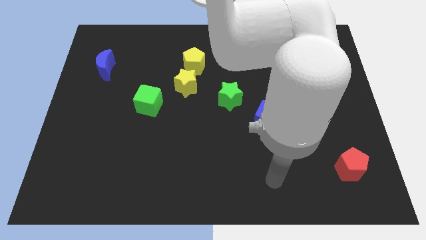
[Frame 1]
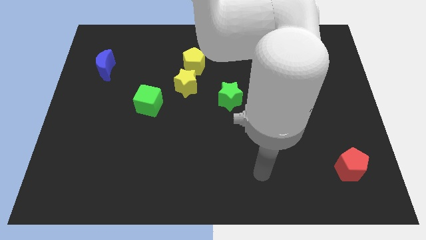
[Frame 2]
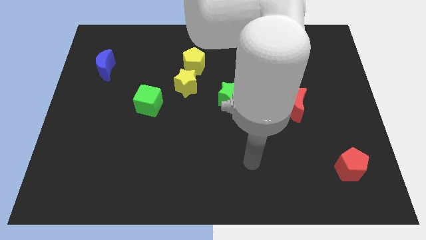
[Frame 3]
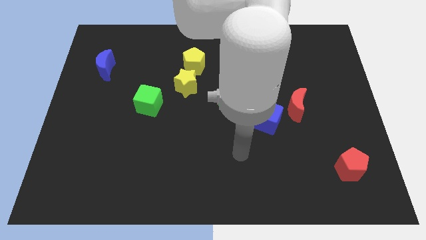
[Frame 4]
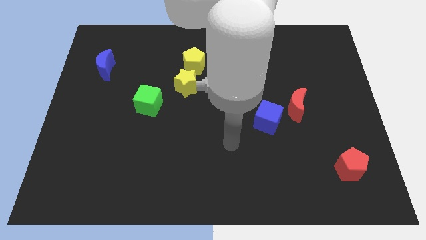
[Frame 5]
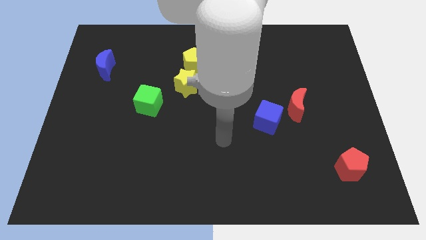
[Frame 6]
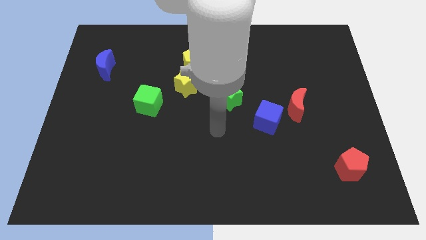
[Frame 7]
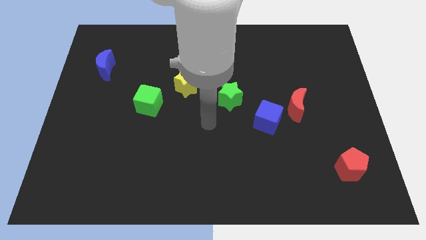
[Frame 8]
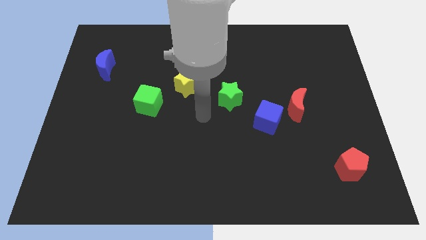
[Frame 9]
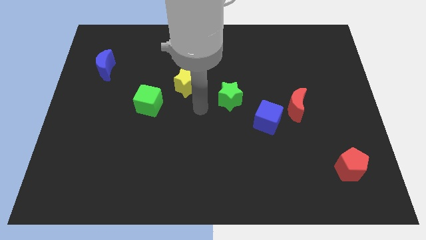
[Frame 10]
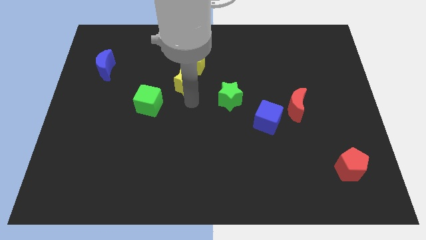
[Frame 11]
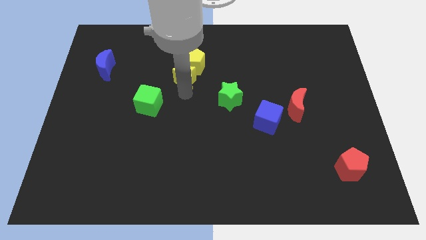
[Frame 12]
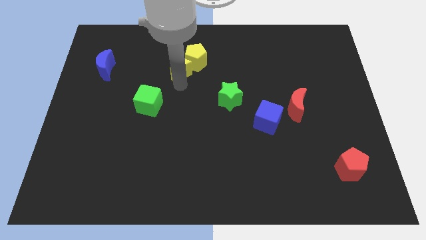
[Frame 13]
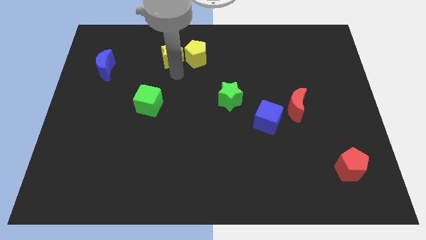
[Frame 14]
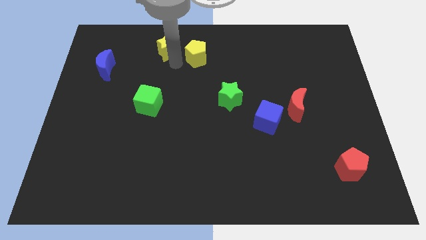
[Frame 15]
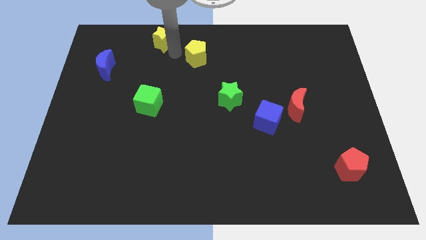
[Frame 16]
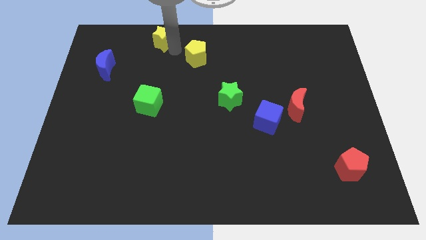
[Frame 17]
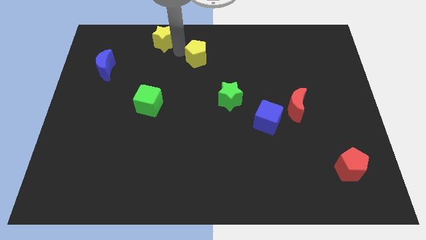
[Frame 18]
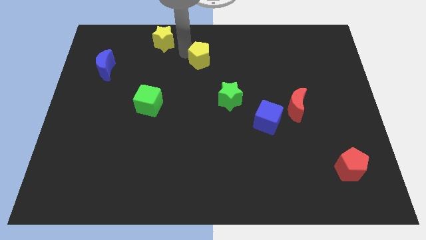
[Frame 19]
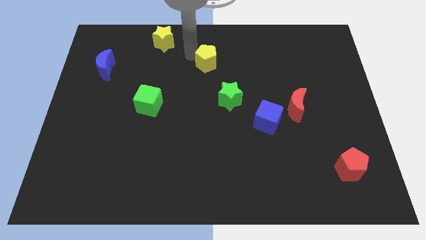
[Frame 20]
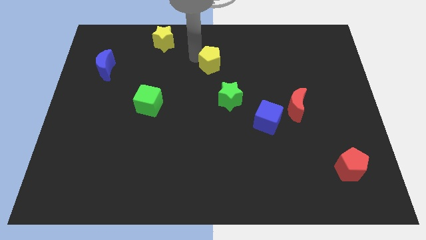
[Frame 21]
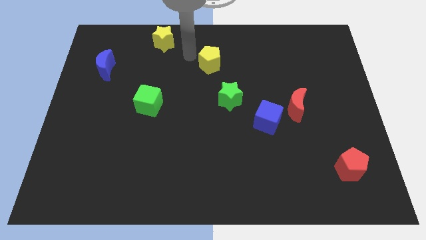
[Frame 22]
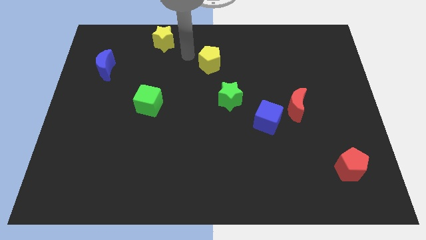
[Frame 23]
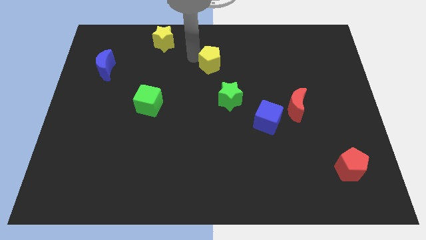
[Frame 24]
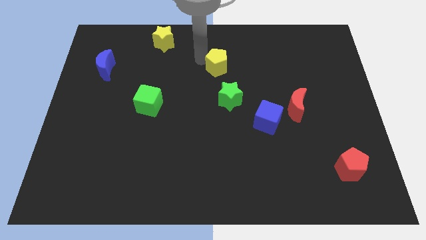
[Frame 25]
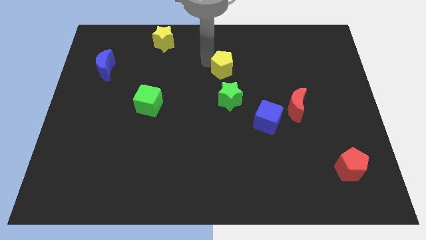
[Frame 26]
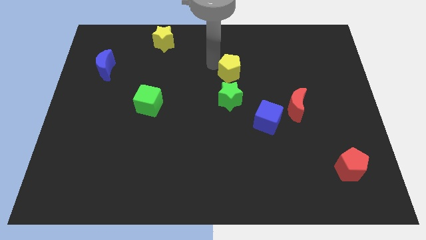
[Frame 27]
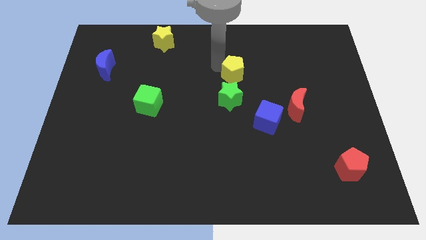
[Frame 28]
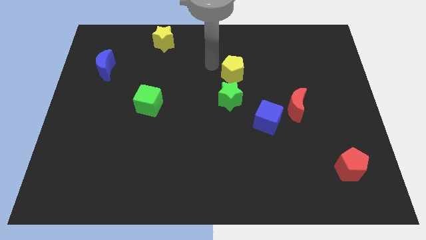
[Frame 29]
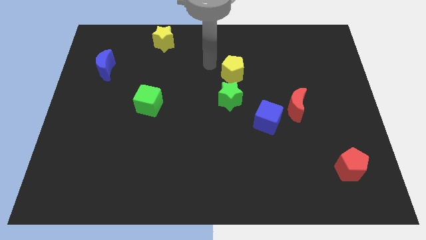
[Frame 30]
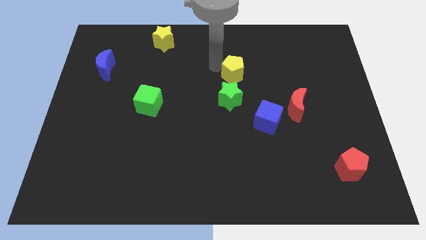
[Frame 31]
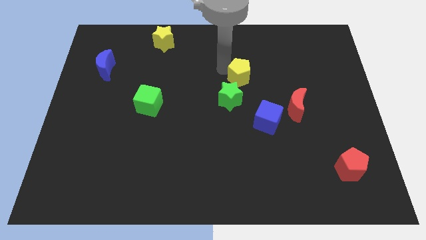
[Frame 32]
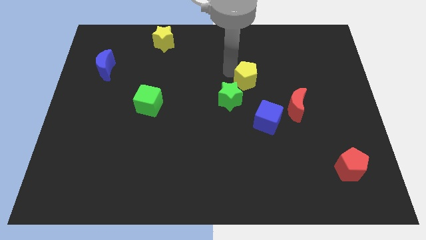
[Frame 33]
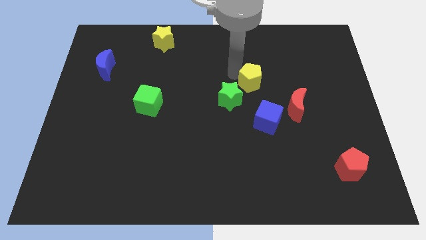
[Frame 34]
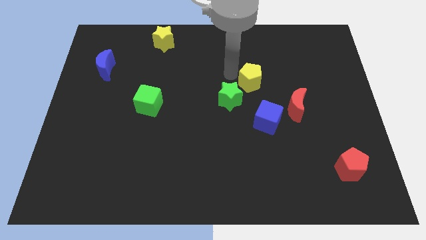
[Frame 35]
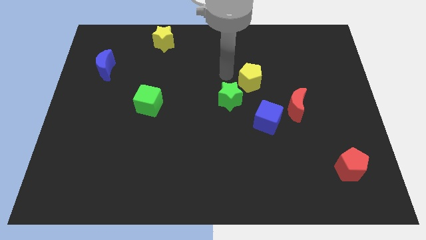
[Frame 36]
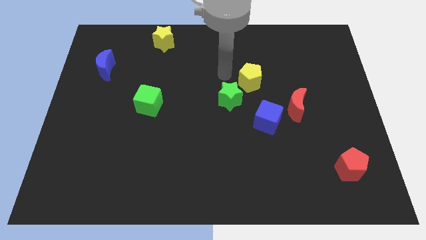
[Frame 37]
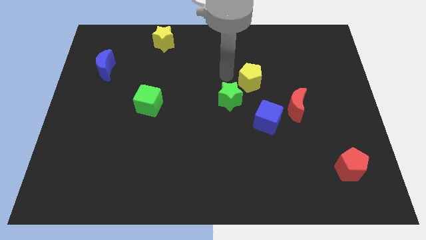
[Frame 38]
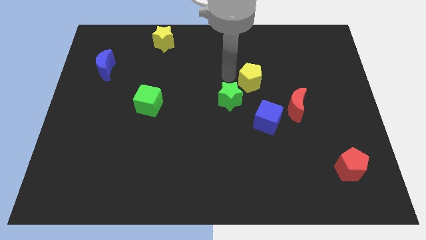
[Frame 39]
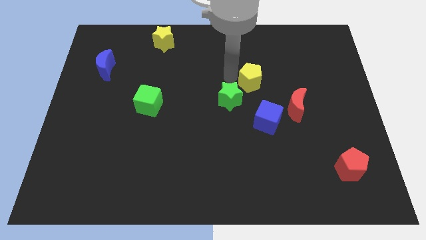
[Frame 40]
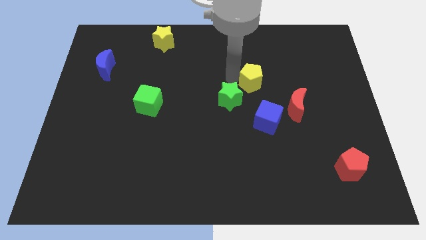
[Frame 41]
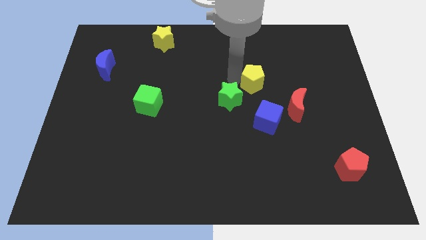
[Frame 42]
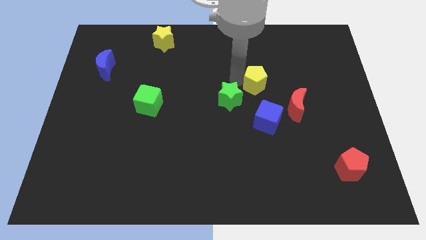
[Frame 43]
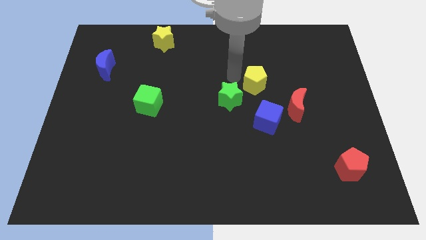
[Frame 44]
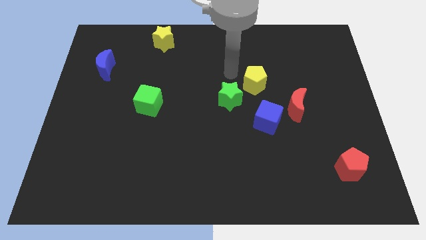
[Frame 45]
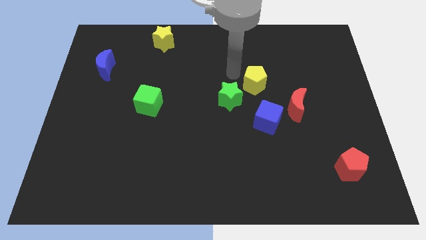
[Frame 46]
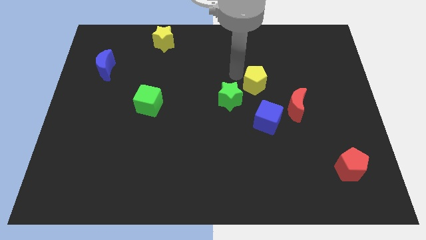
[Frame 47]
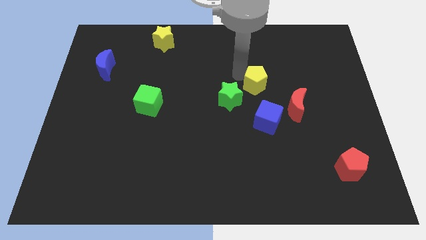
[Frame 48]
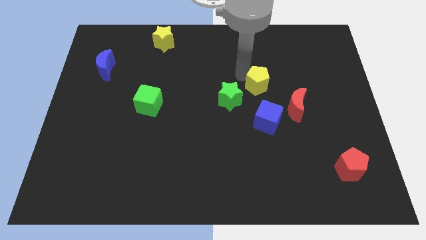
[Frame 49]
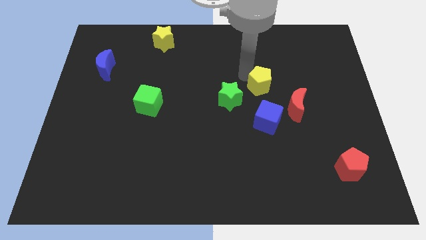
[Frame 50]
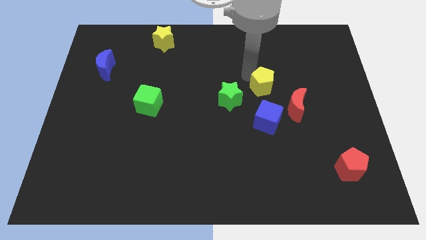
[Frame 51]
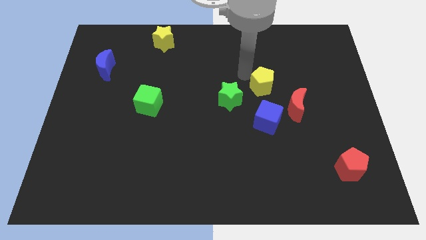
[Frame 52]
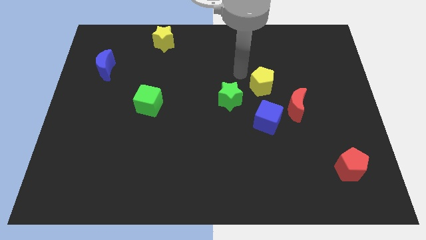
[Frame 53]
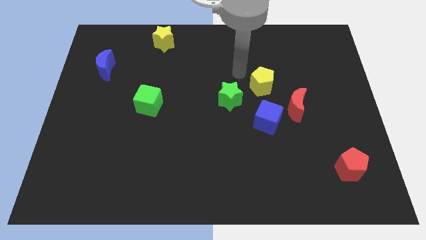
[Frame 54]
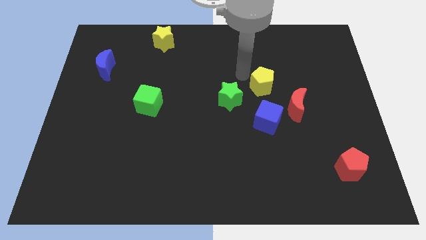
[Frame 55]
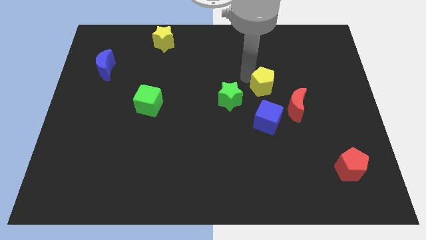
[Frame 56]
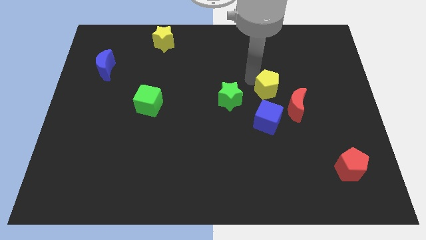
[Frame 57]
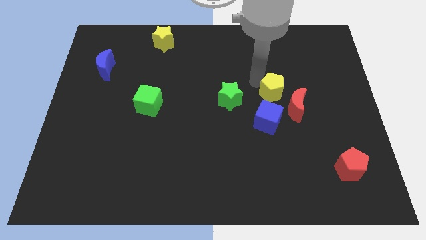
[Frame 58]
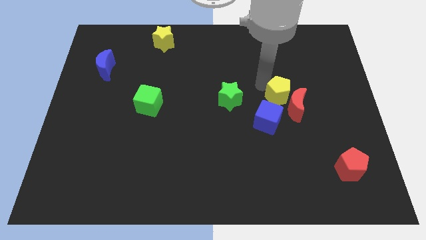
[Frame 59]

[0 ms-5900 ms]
slide the yellow pentagon to the red moon
